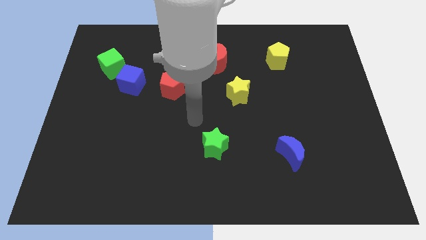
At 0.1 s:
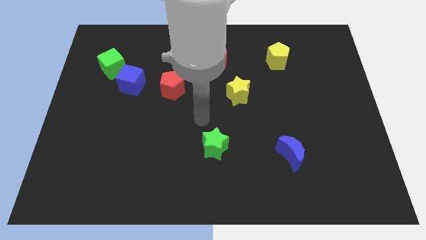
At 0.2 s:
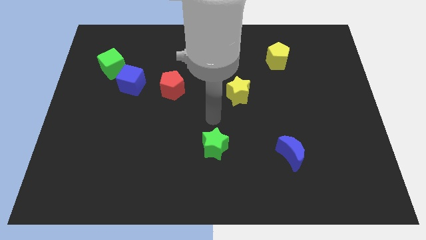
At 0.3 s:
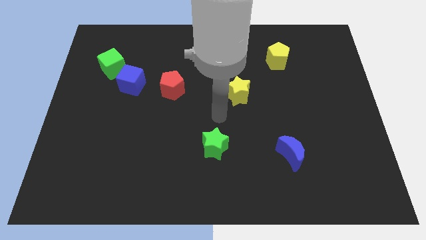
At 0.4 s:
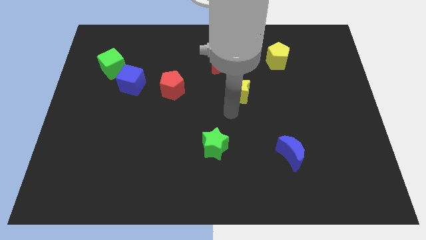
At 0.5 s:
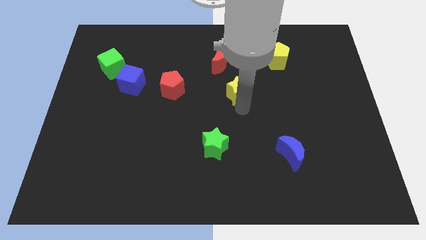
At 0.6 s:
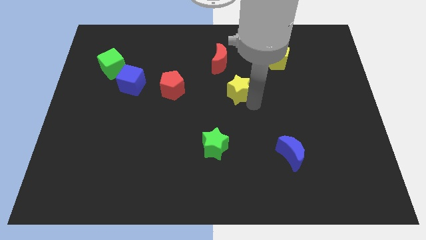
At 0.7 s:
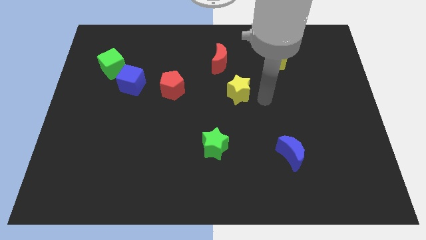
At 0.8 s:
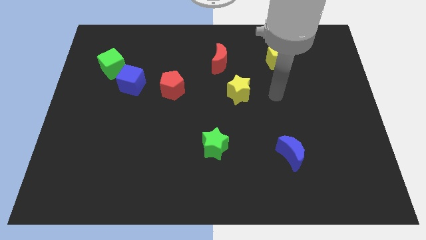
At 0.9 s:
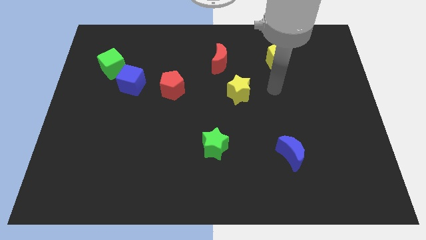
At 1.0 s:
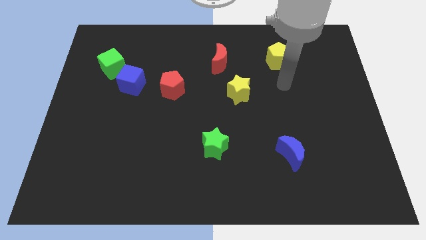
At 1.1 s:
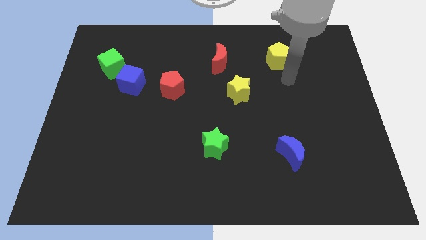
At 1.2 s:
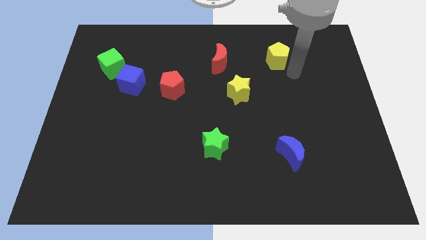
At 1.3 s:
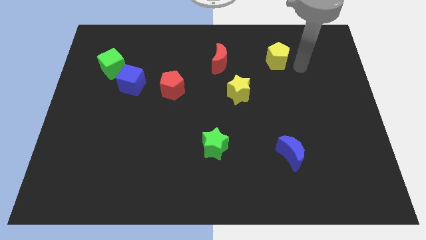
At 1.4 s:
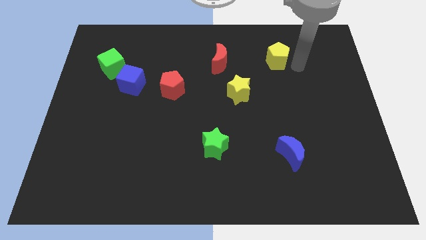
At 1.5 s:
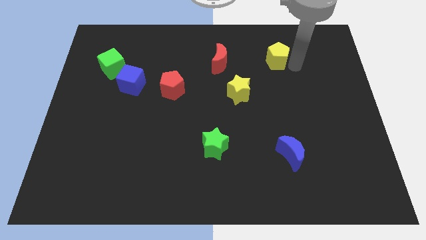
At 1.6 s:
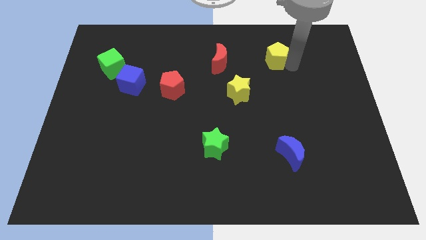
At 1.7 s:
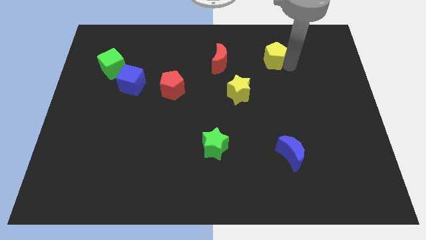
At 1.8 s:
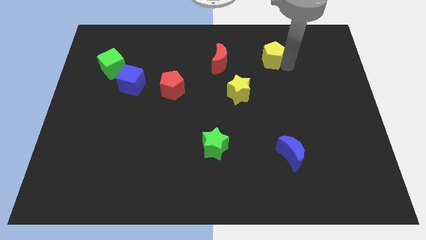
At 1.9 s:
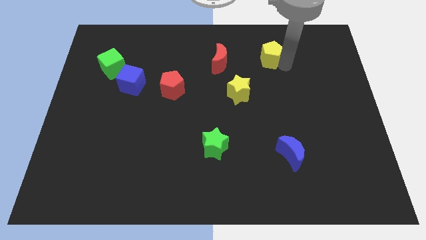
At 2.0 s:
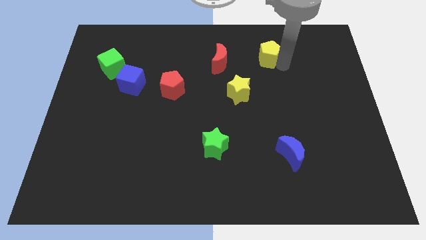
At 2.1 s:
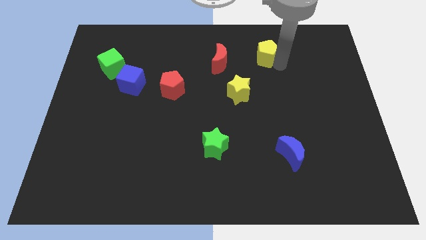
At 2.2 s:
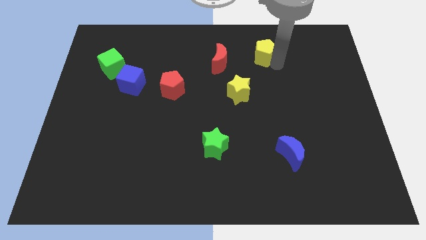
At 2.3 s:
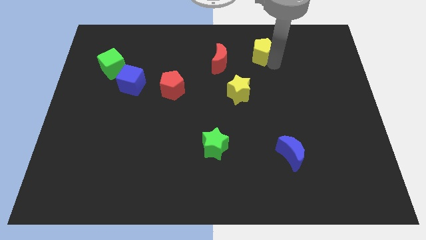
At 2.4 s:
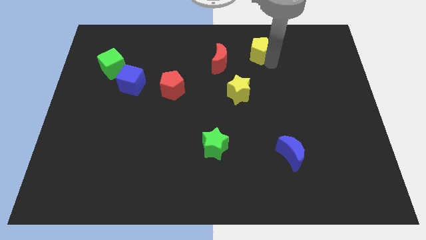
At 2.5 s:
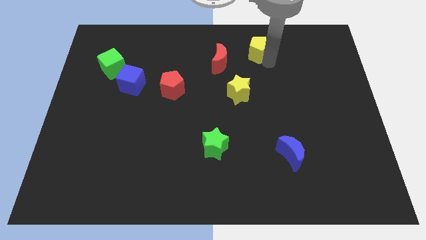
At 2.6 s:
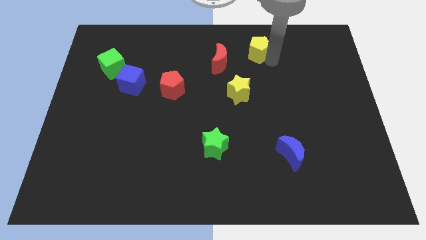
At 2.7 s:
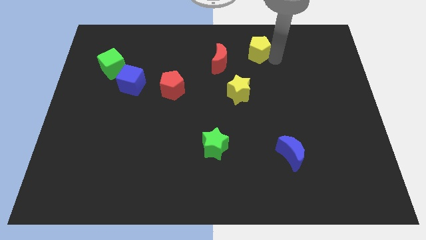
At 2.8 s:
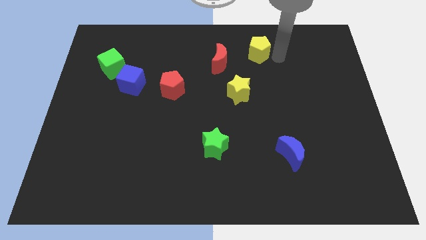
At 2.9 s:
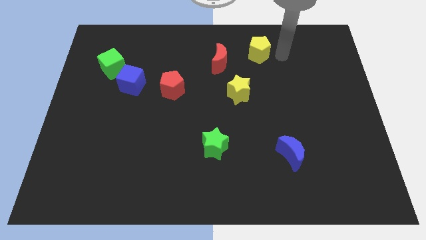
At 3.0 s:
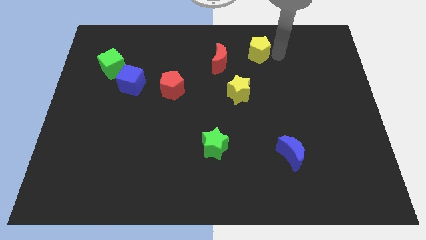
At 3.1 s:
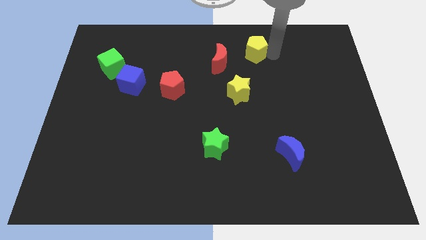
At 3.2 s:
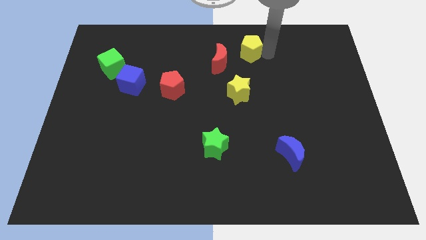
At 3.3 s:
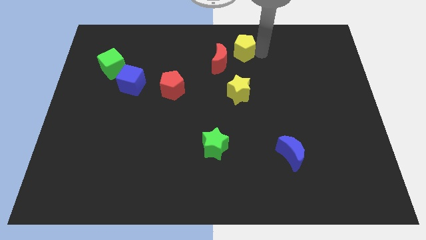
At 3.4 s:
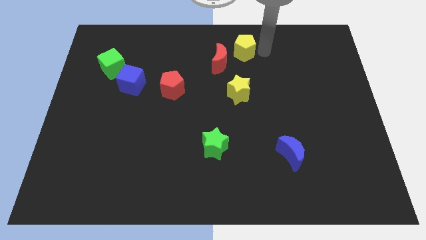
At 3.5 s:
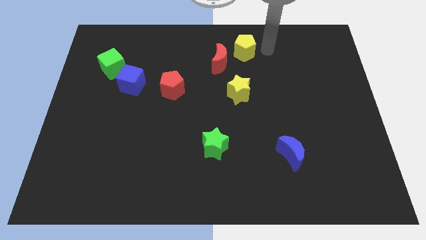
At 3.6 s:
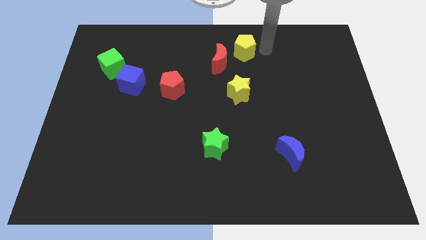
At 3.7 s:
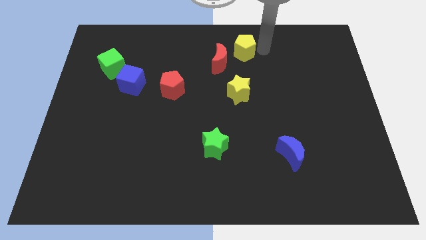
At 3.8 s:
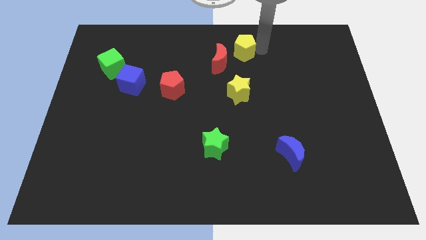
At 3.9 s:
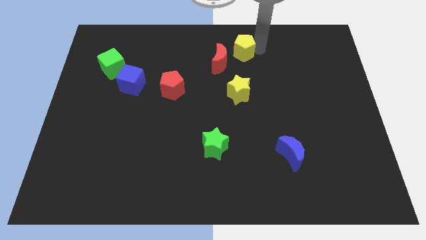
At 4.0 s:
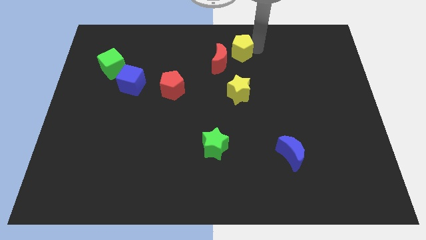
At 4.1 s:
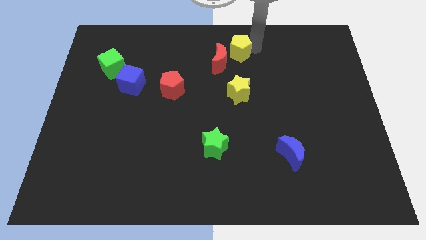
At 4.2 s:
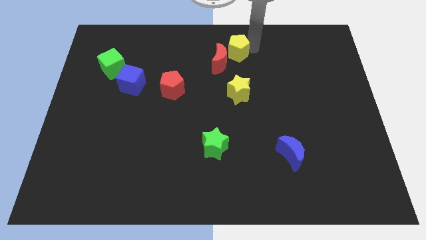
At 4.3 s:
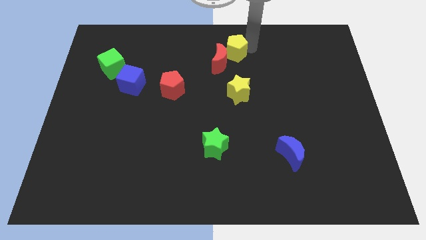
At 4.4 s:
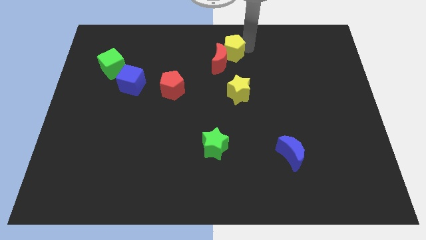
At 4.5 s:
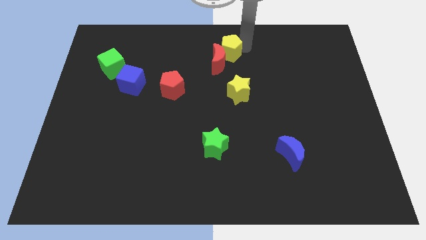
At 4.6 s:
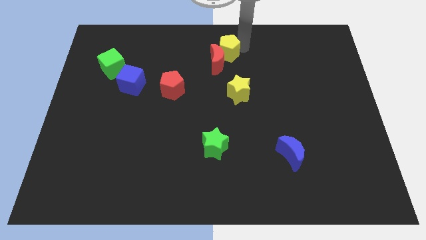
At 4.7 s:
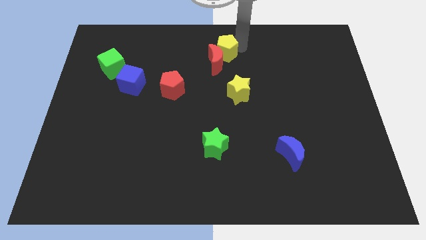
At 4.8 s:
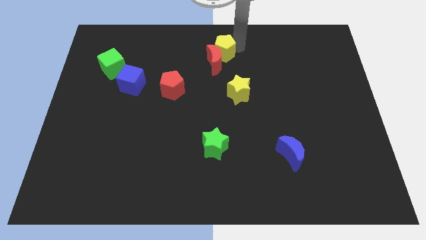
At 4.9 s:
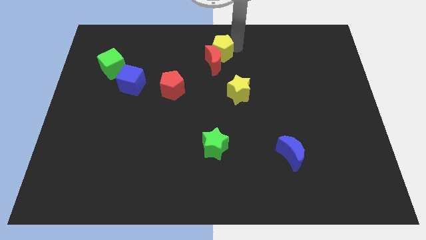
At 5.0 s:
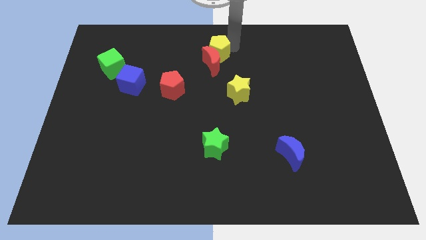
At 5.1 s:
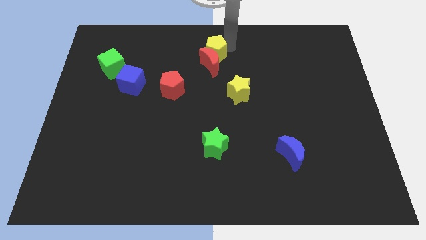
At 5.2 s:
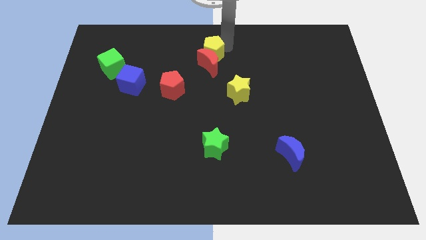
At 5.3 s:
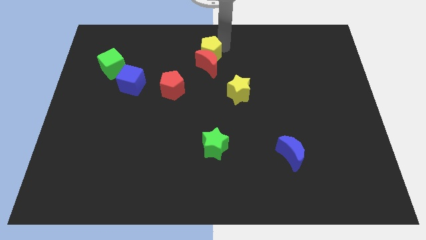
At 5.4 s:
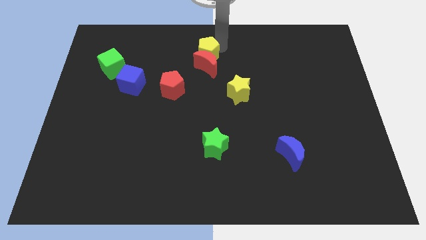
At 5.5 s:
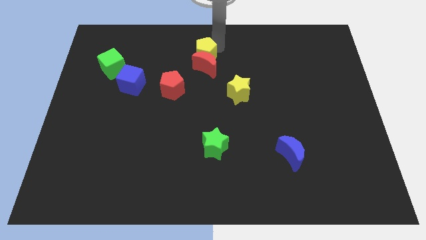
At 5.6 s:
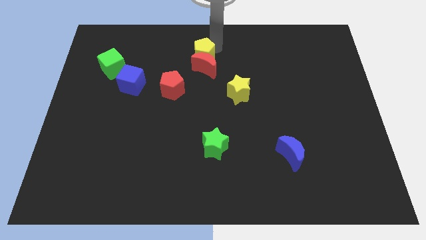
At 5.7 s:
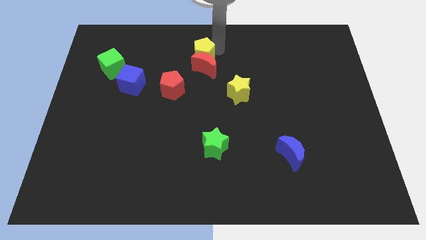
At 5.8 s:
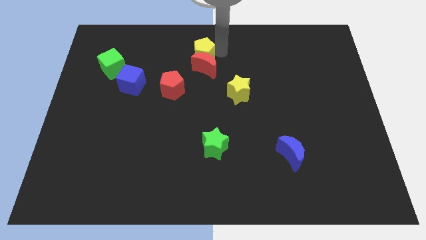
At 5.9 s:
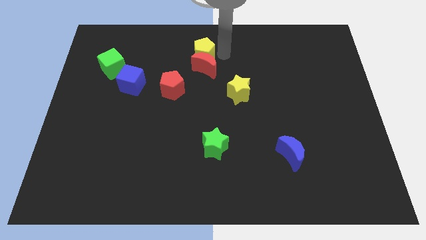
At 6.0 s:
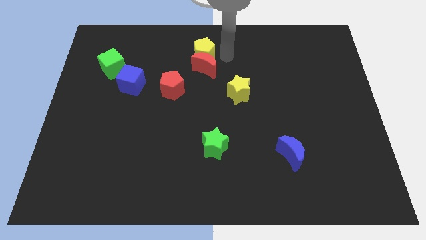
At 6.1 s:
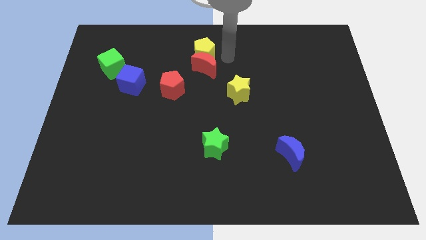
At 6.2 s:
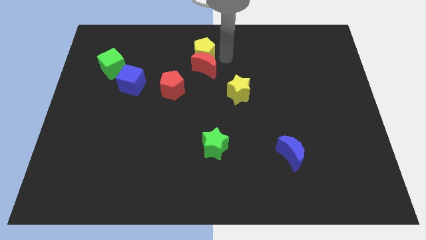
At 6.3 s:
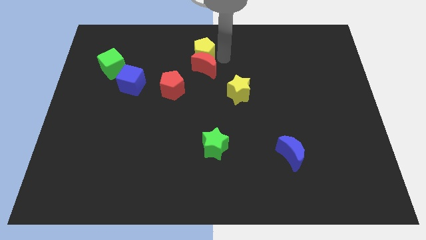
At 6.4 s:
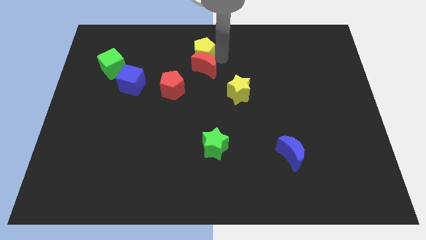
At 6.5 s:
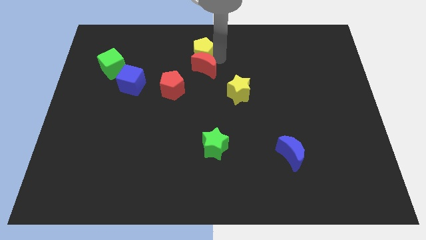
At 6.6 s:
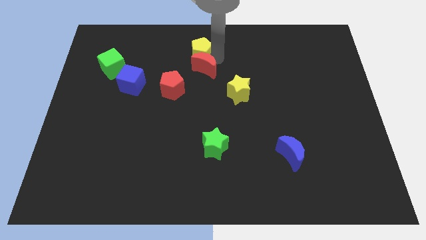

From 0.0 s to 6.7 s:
slide the yellow pentagon to the left

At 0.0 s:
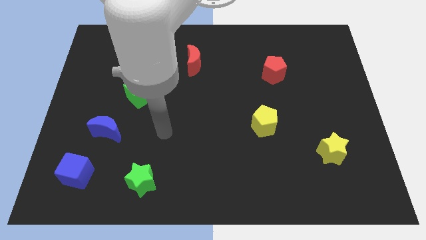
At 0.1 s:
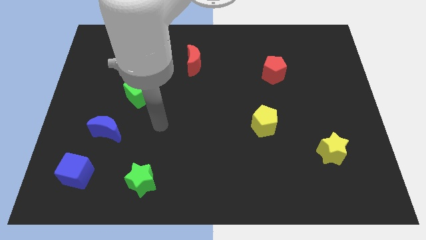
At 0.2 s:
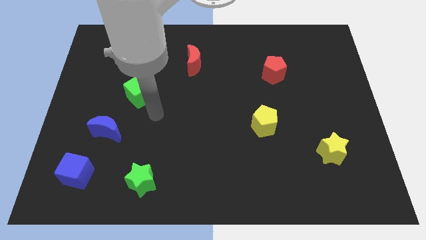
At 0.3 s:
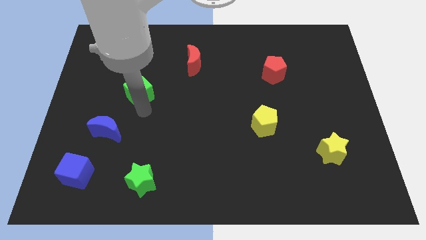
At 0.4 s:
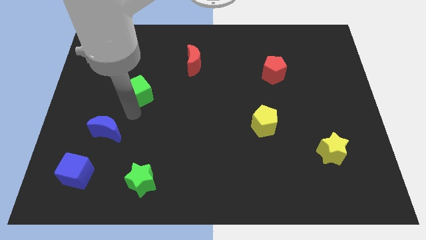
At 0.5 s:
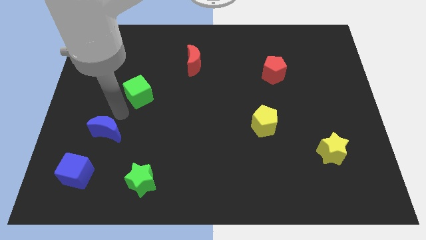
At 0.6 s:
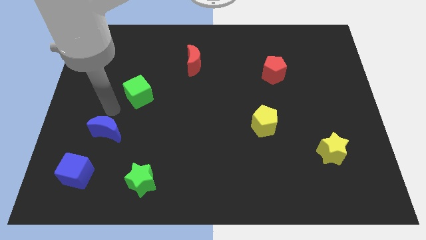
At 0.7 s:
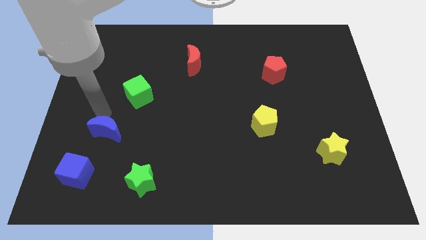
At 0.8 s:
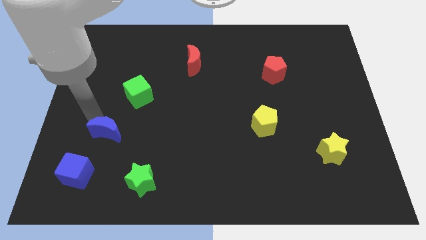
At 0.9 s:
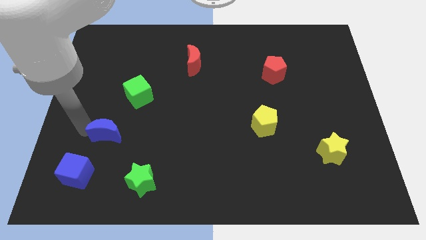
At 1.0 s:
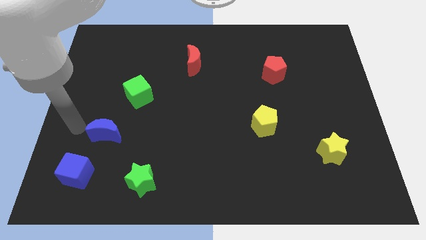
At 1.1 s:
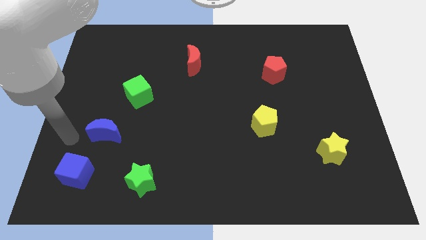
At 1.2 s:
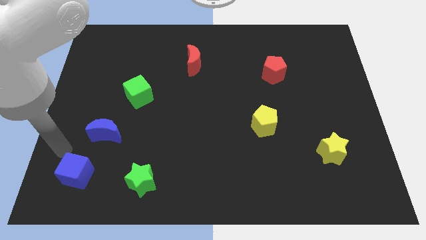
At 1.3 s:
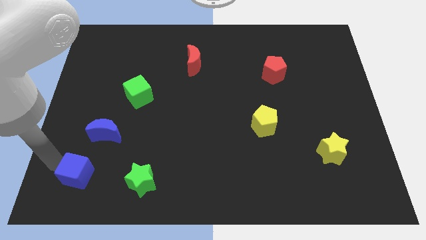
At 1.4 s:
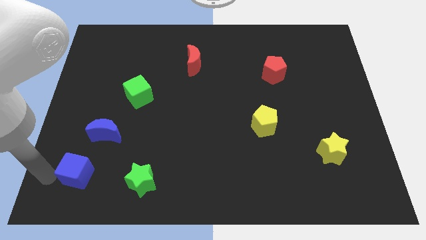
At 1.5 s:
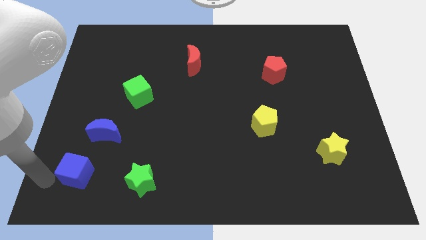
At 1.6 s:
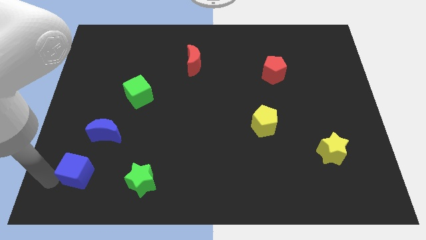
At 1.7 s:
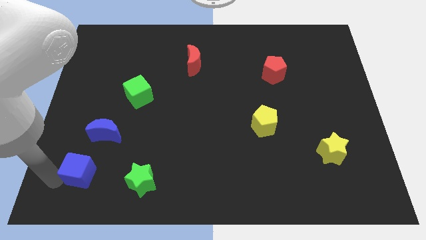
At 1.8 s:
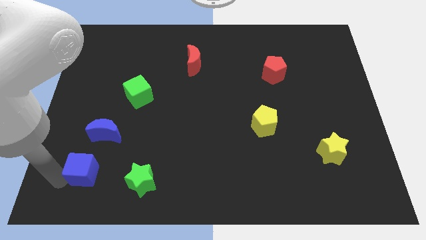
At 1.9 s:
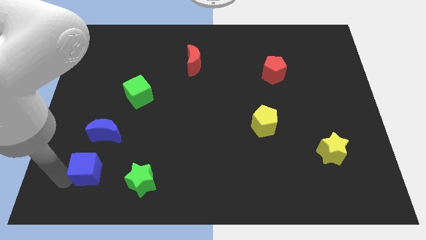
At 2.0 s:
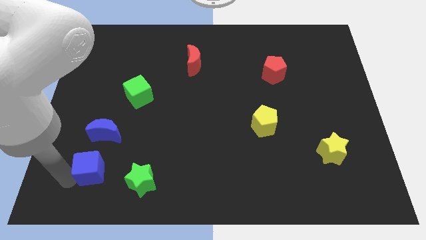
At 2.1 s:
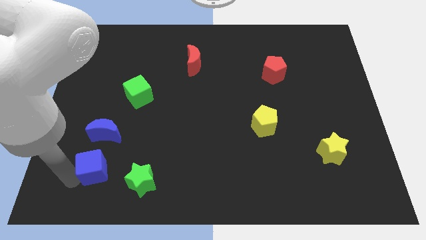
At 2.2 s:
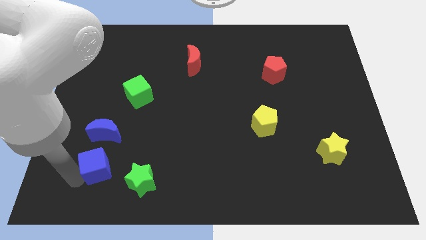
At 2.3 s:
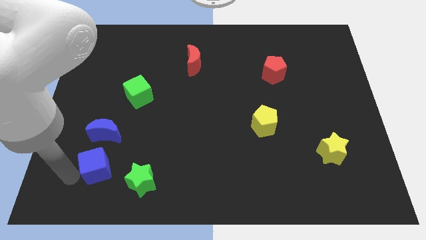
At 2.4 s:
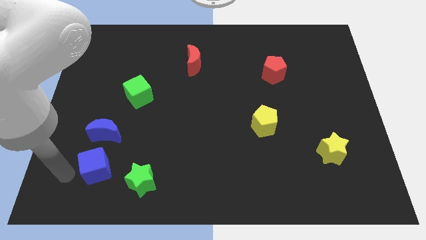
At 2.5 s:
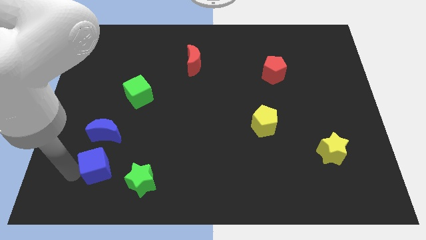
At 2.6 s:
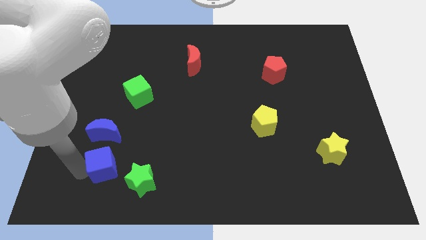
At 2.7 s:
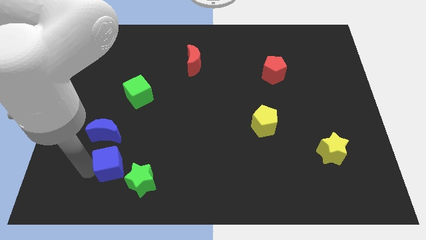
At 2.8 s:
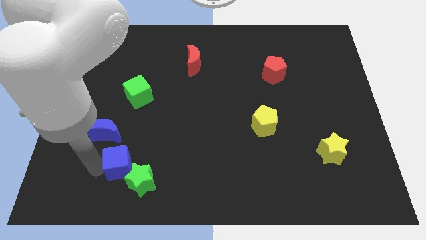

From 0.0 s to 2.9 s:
push the blue cube a little bit right
